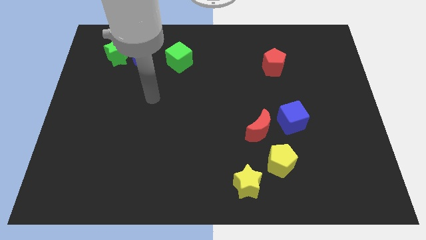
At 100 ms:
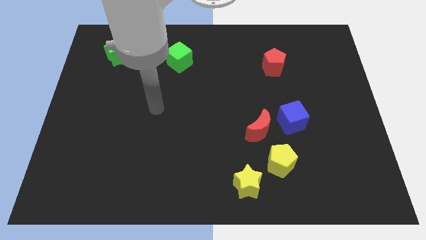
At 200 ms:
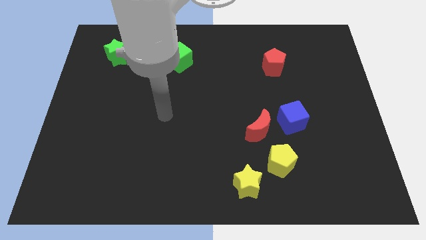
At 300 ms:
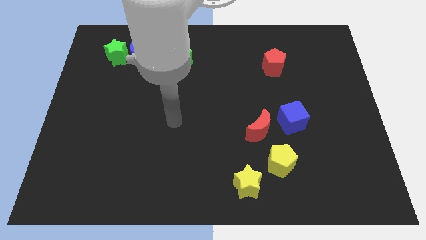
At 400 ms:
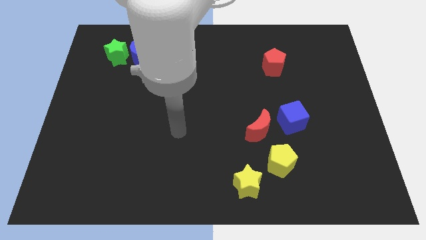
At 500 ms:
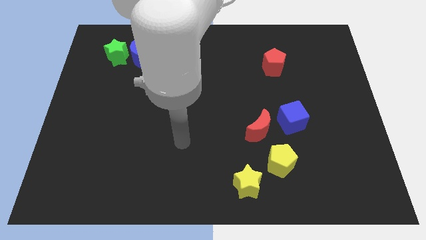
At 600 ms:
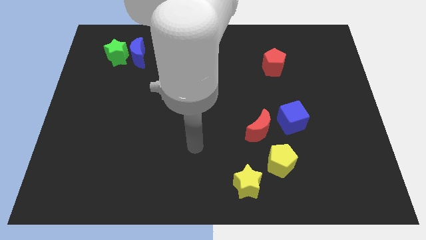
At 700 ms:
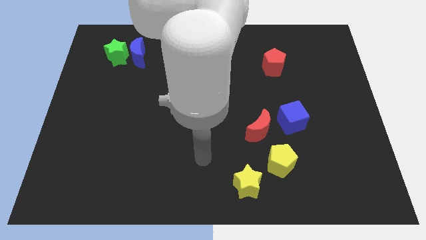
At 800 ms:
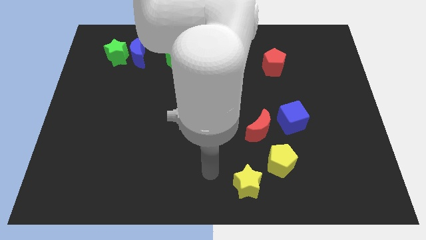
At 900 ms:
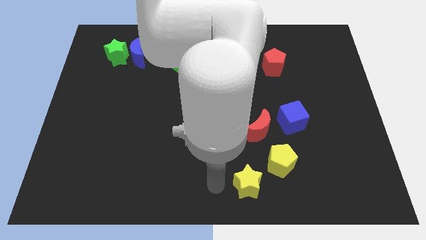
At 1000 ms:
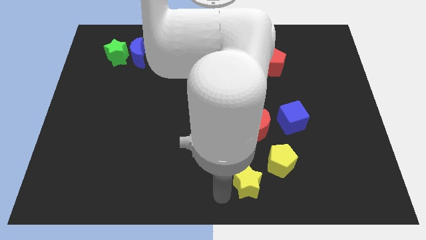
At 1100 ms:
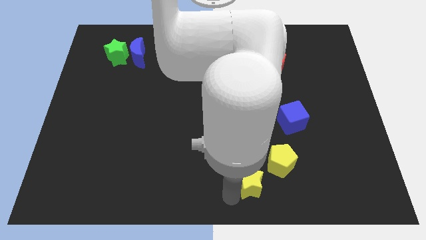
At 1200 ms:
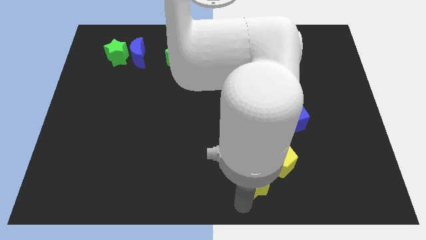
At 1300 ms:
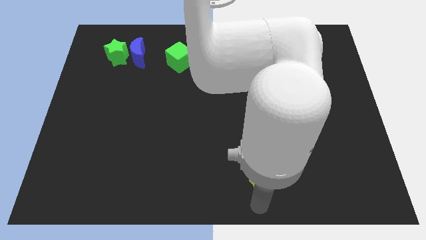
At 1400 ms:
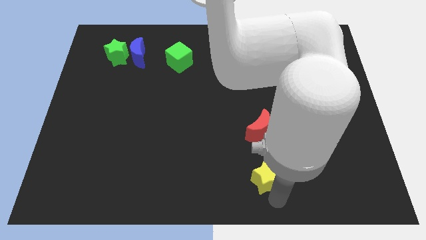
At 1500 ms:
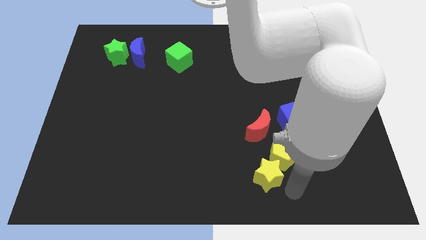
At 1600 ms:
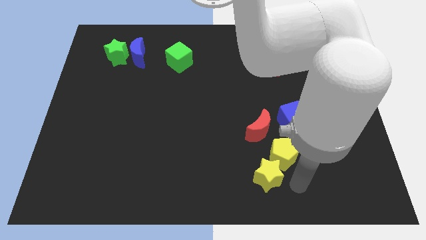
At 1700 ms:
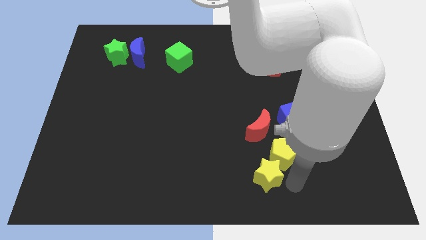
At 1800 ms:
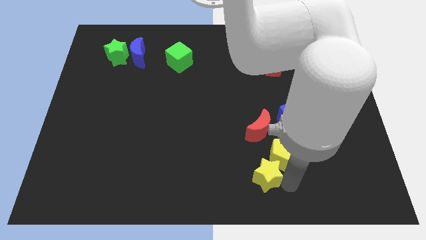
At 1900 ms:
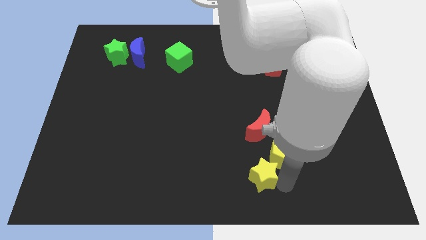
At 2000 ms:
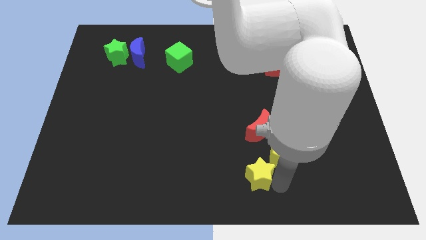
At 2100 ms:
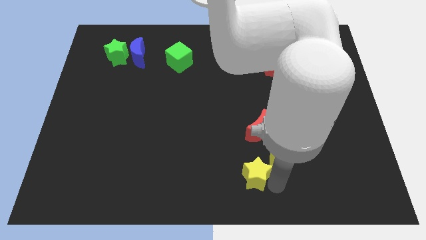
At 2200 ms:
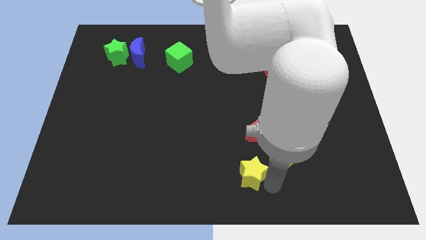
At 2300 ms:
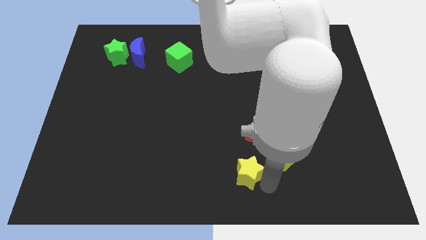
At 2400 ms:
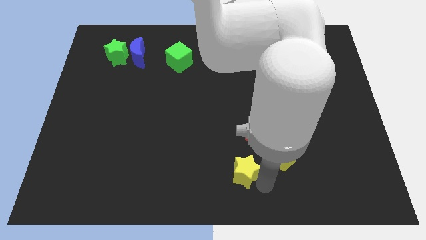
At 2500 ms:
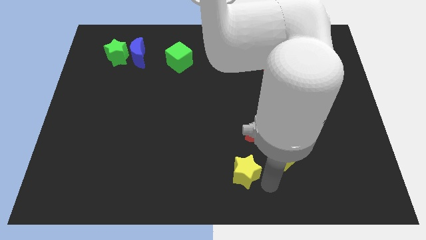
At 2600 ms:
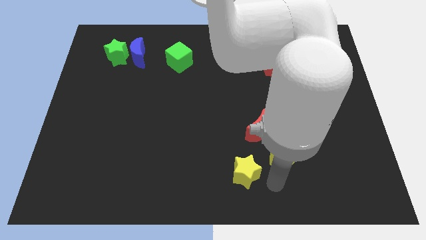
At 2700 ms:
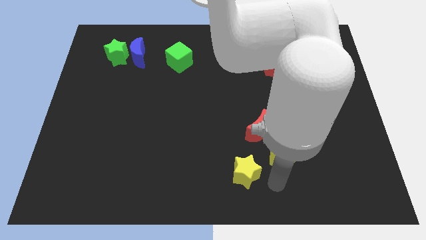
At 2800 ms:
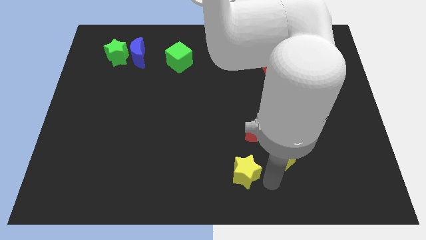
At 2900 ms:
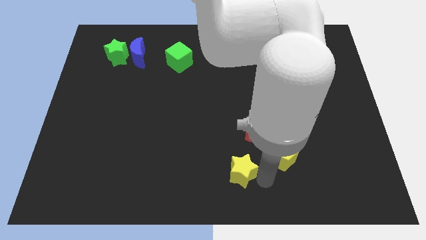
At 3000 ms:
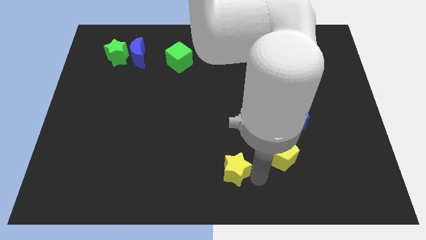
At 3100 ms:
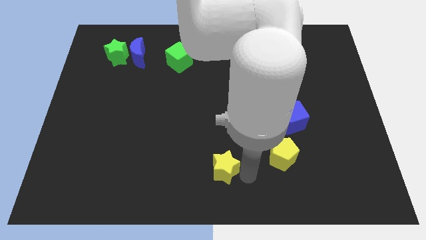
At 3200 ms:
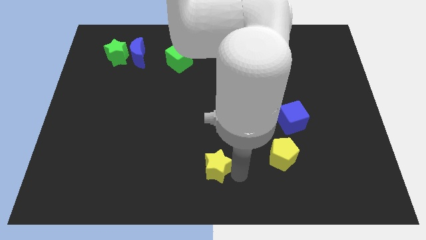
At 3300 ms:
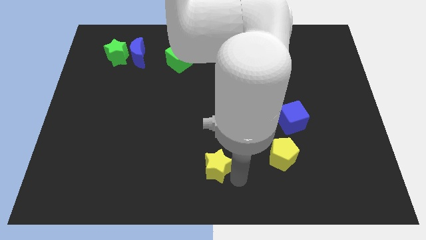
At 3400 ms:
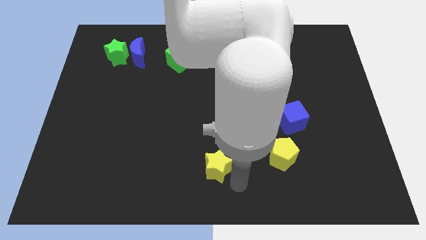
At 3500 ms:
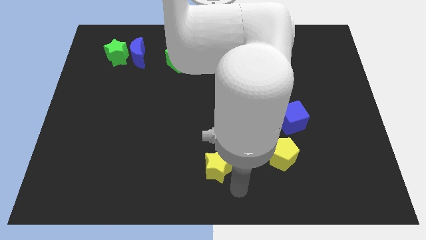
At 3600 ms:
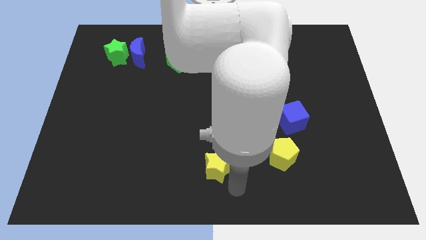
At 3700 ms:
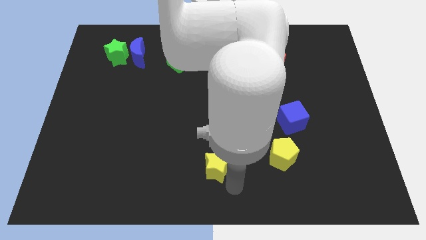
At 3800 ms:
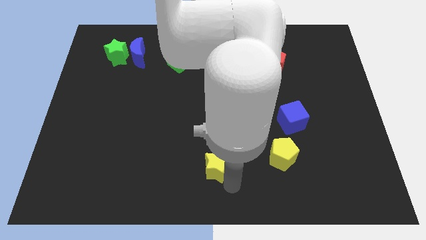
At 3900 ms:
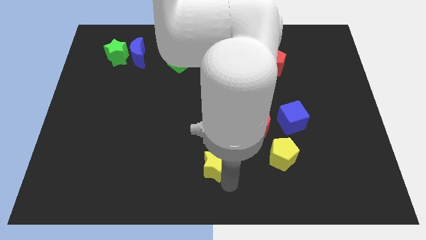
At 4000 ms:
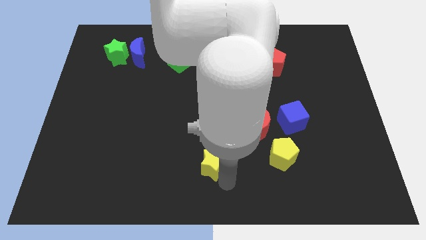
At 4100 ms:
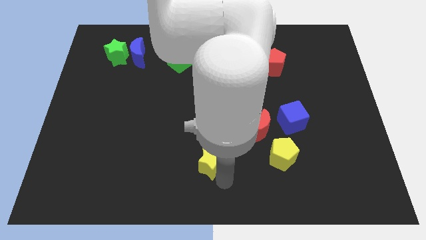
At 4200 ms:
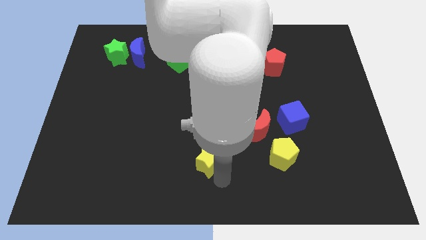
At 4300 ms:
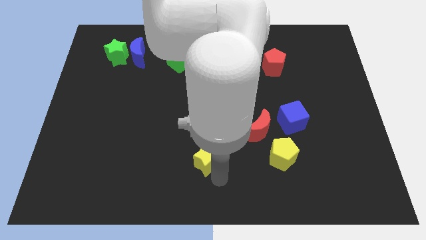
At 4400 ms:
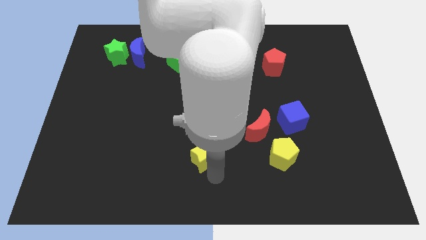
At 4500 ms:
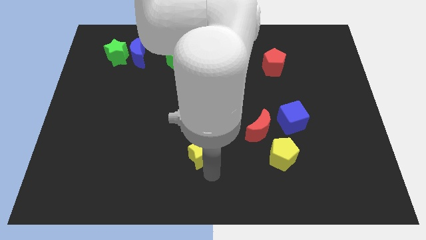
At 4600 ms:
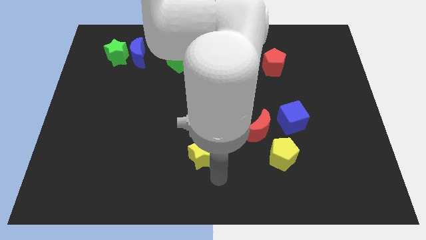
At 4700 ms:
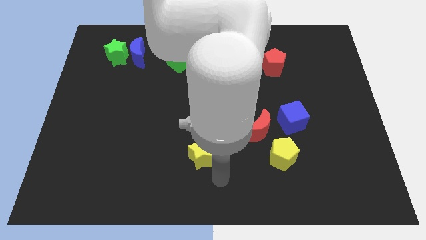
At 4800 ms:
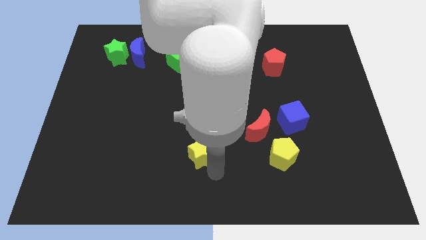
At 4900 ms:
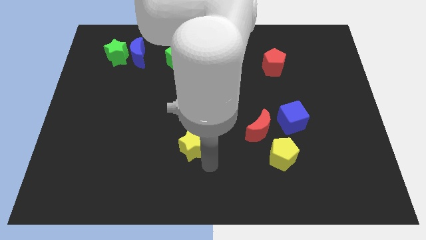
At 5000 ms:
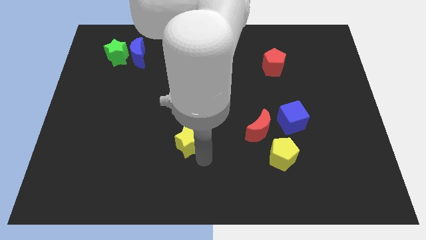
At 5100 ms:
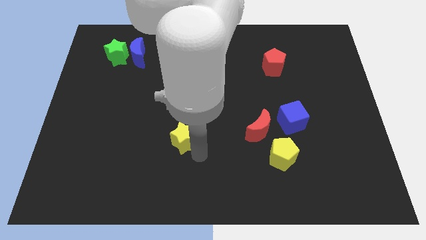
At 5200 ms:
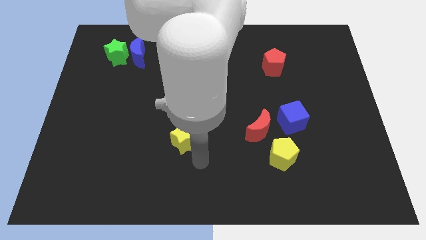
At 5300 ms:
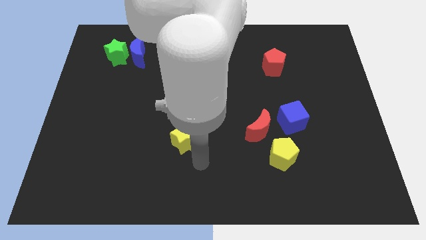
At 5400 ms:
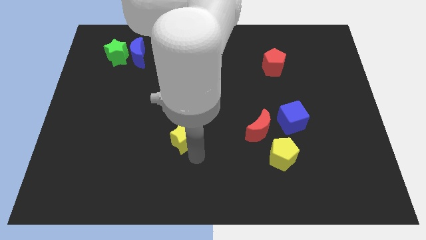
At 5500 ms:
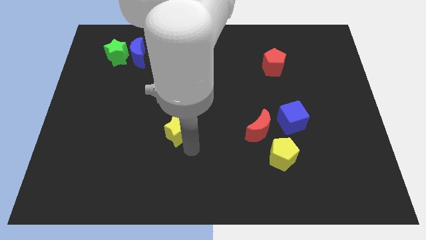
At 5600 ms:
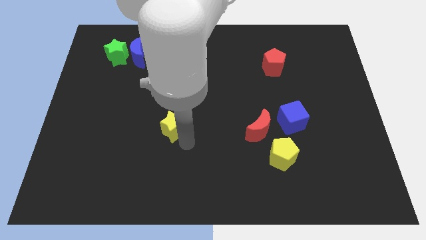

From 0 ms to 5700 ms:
slide the yellow star upwards and then to the left

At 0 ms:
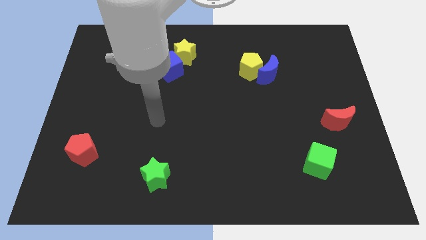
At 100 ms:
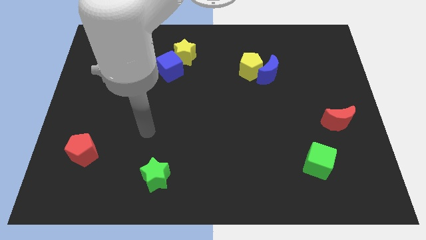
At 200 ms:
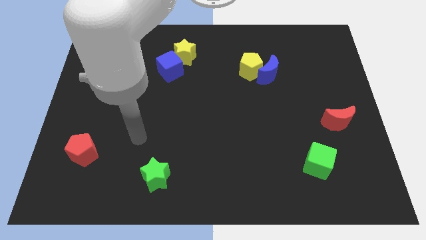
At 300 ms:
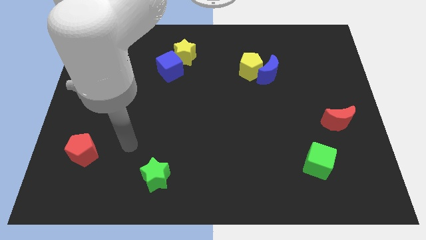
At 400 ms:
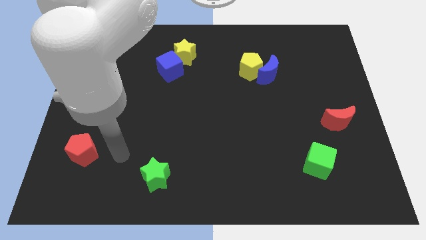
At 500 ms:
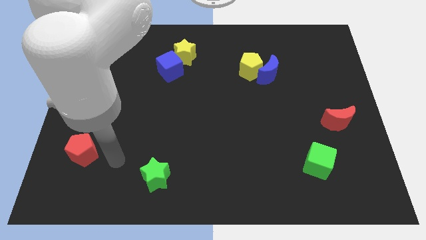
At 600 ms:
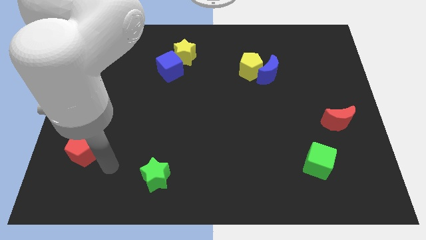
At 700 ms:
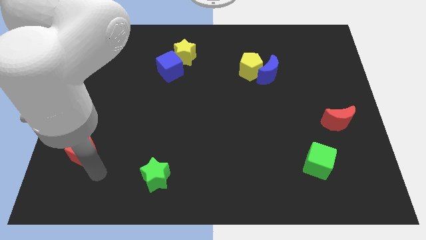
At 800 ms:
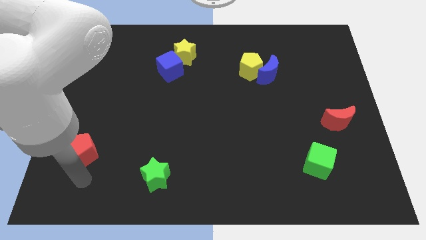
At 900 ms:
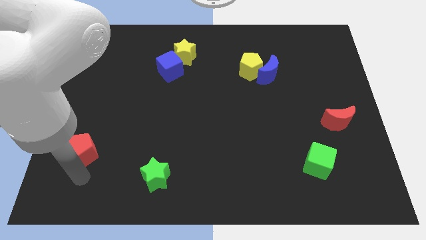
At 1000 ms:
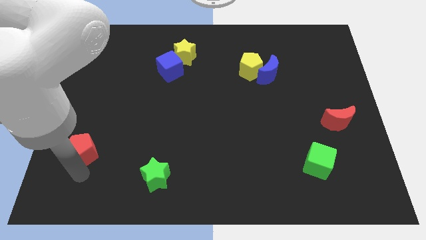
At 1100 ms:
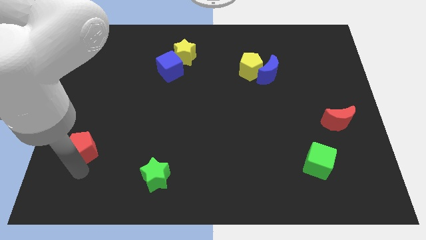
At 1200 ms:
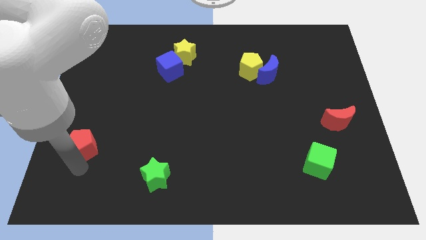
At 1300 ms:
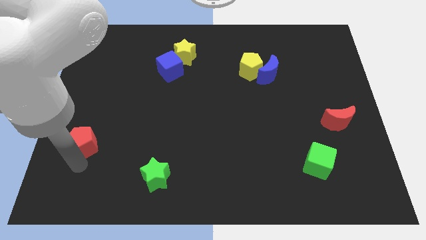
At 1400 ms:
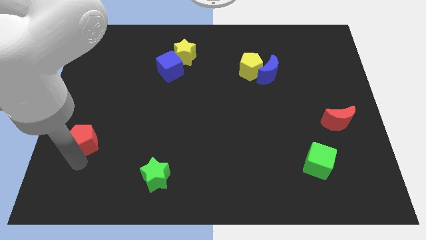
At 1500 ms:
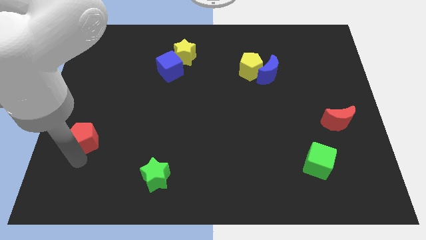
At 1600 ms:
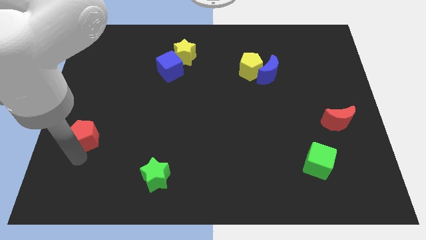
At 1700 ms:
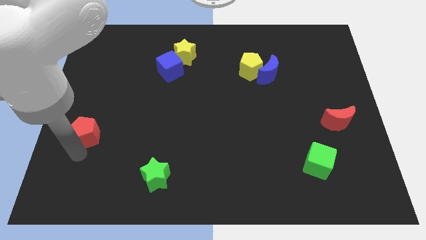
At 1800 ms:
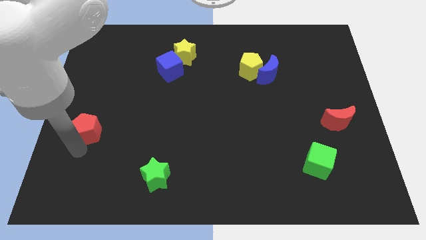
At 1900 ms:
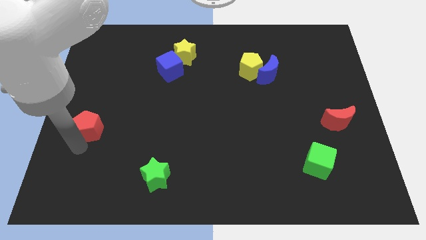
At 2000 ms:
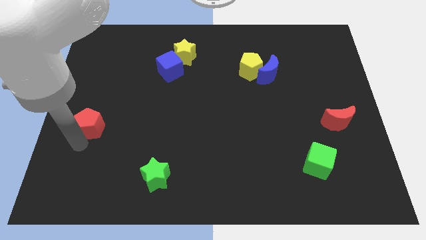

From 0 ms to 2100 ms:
slightly move the red pentagon upwards

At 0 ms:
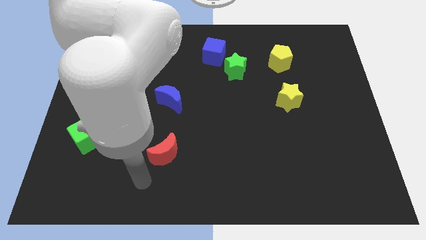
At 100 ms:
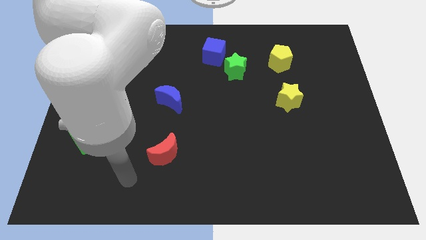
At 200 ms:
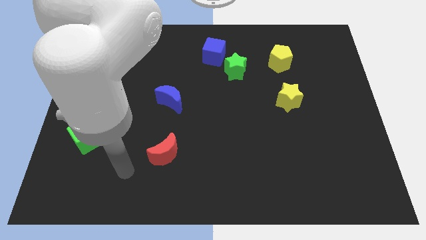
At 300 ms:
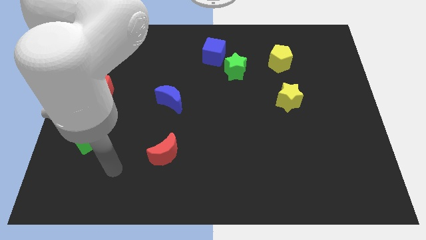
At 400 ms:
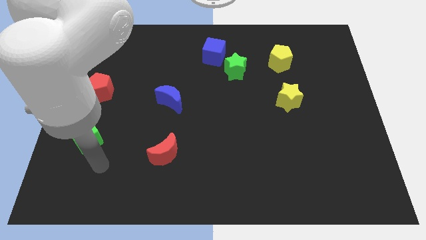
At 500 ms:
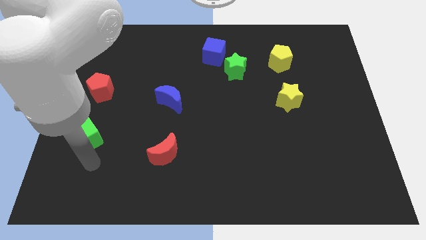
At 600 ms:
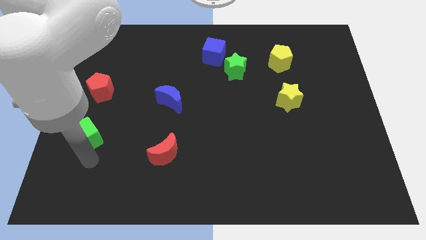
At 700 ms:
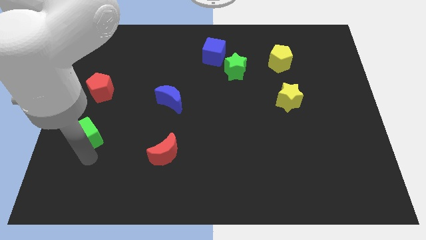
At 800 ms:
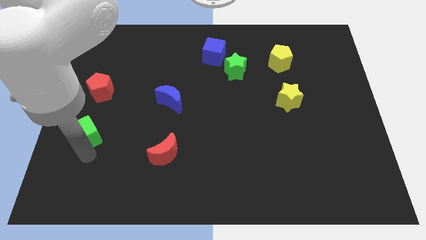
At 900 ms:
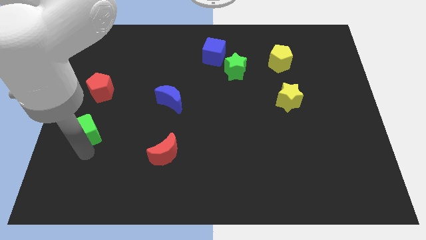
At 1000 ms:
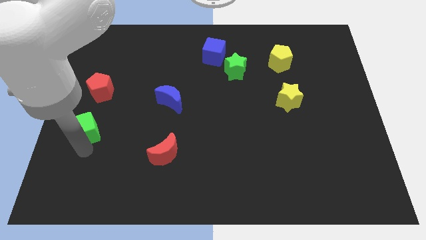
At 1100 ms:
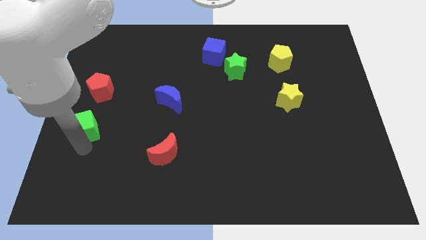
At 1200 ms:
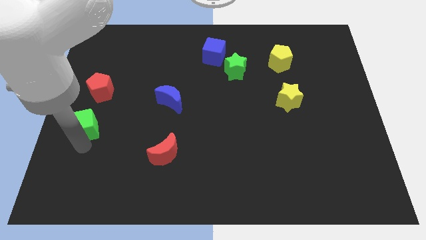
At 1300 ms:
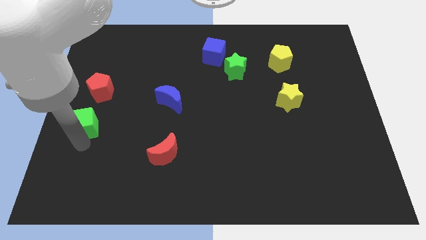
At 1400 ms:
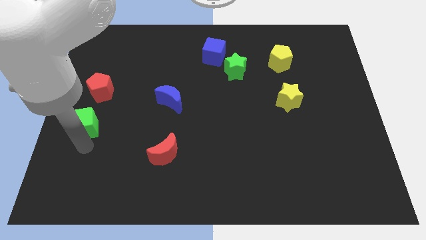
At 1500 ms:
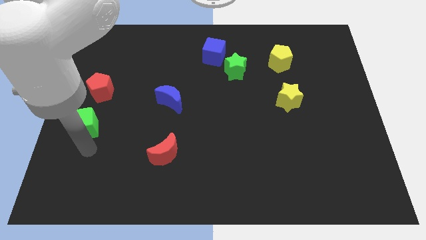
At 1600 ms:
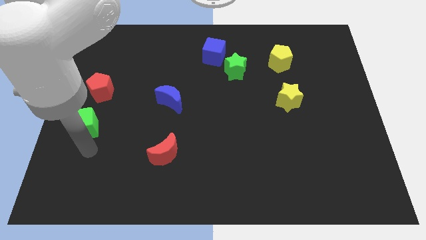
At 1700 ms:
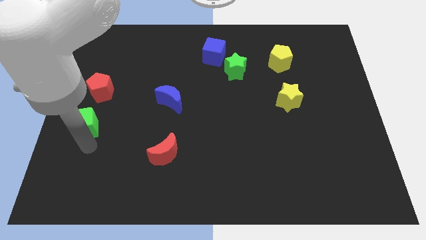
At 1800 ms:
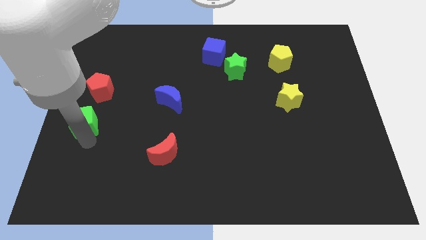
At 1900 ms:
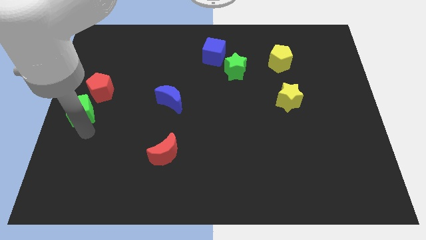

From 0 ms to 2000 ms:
slightly slide the green cube up
